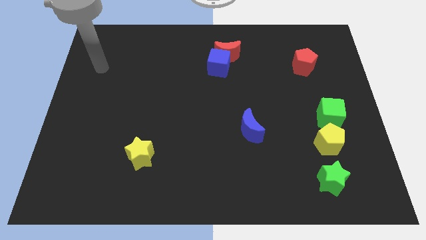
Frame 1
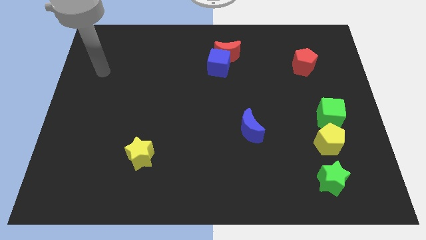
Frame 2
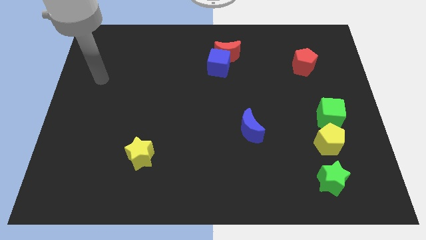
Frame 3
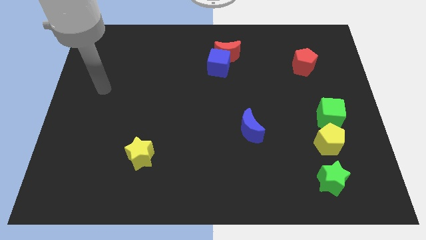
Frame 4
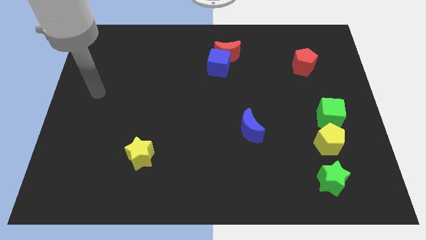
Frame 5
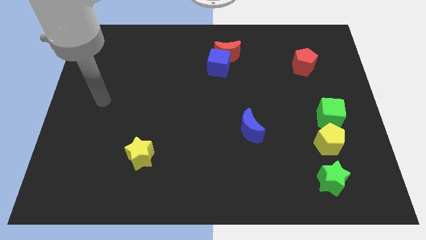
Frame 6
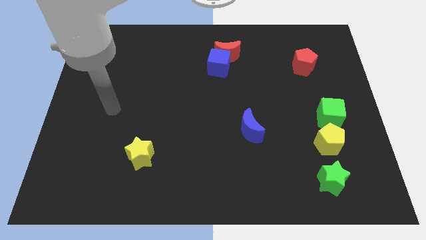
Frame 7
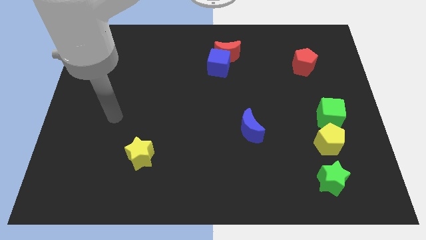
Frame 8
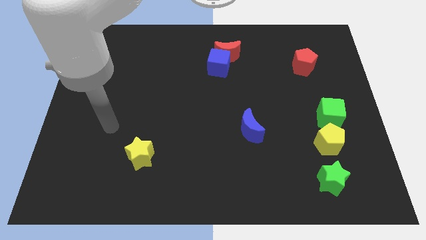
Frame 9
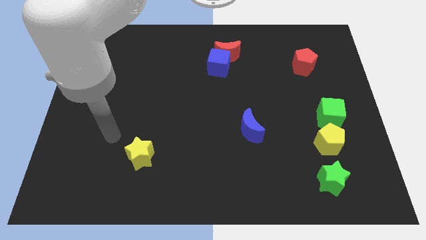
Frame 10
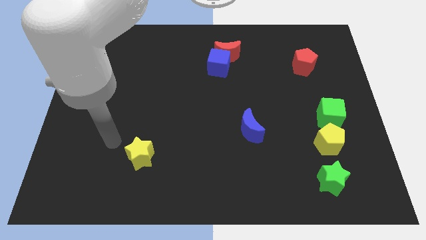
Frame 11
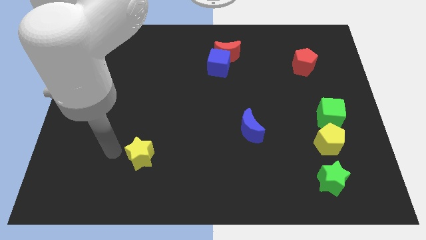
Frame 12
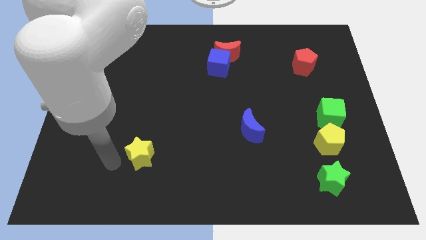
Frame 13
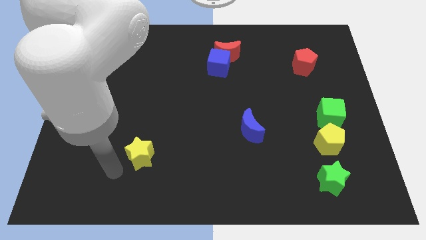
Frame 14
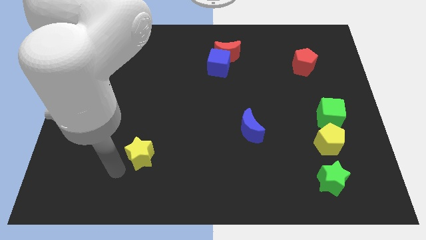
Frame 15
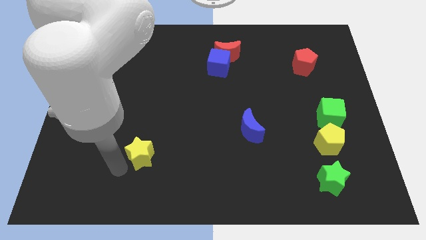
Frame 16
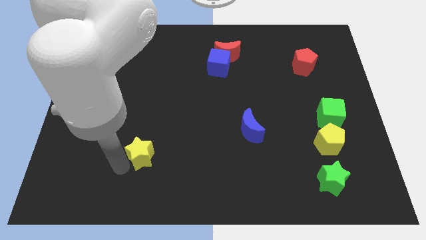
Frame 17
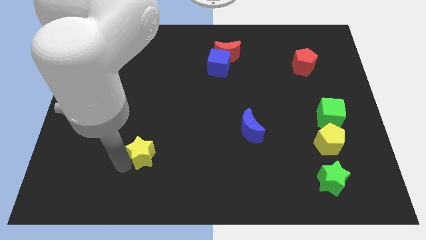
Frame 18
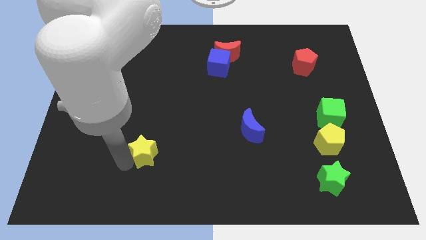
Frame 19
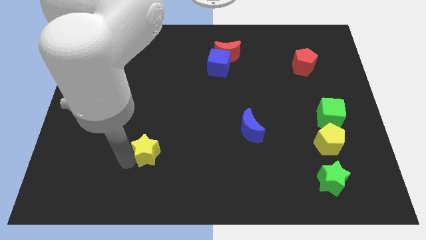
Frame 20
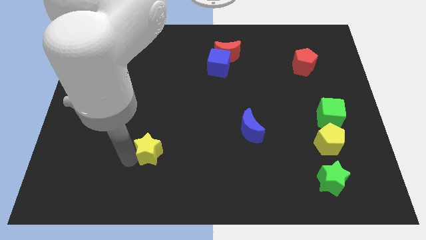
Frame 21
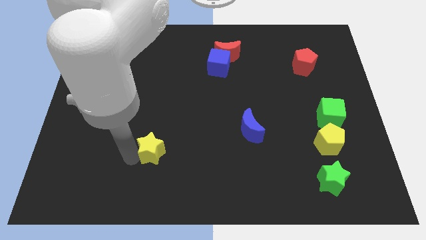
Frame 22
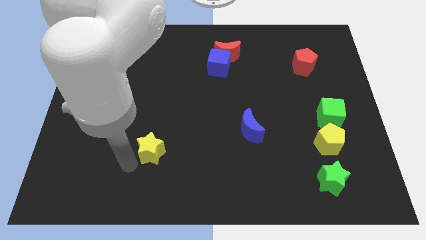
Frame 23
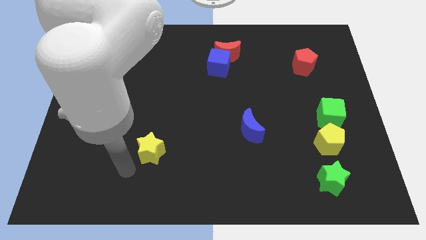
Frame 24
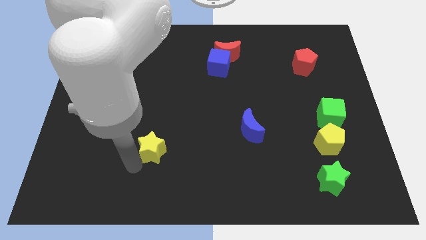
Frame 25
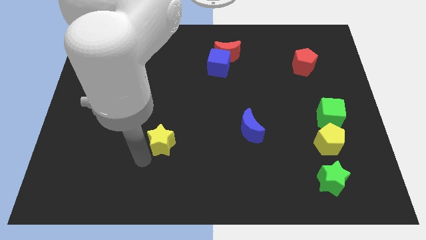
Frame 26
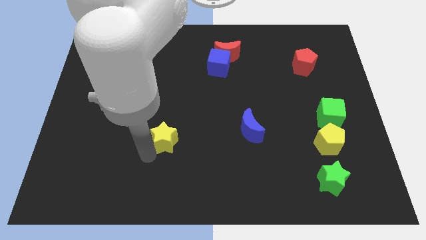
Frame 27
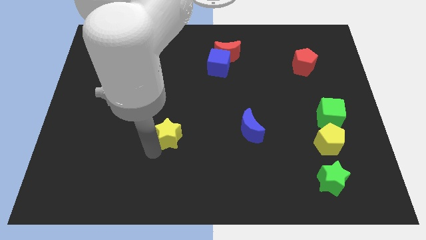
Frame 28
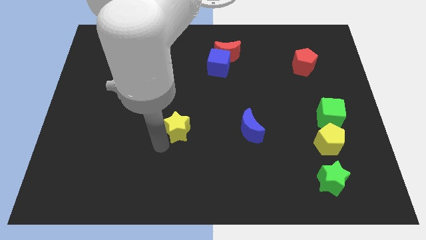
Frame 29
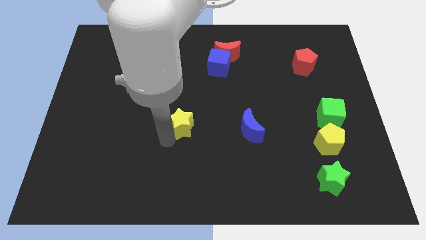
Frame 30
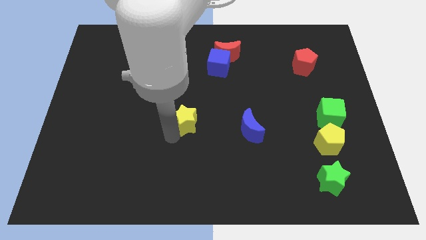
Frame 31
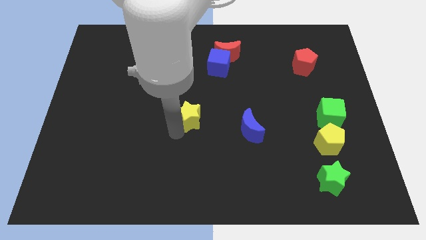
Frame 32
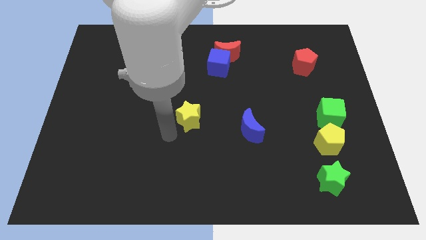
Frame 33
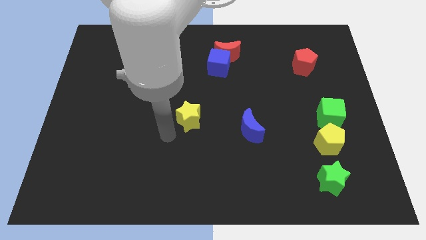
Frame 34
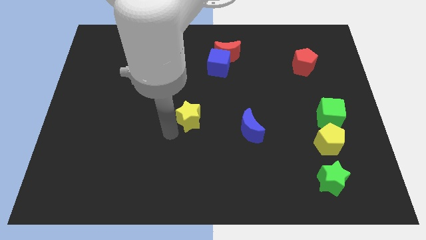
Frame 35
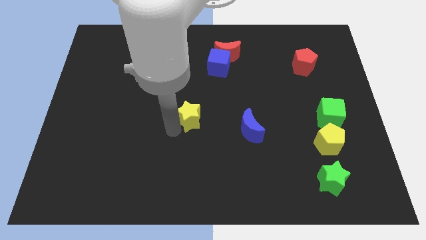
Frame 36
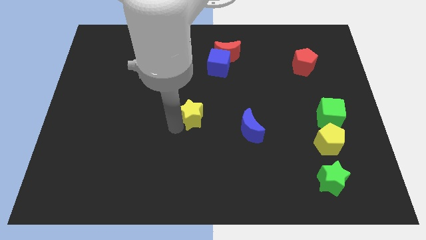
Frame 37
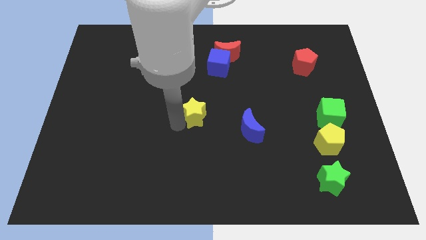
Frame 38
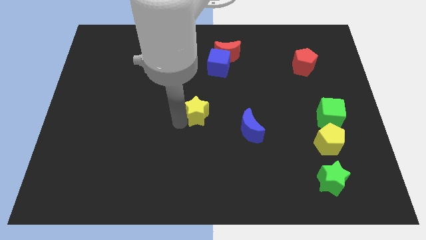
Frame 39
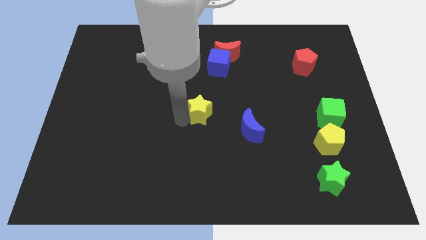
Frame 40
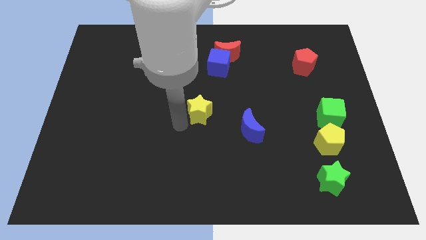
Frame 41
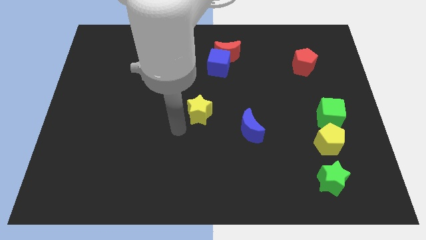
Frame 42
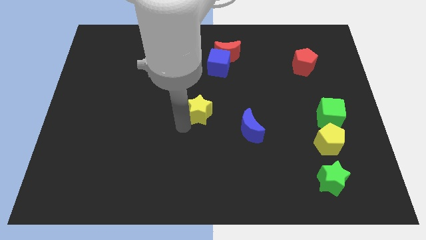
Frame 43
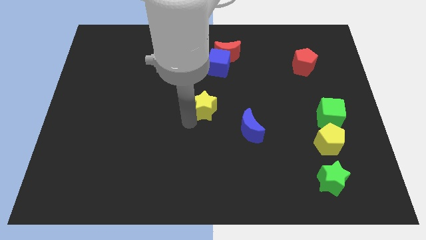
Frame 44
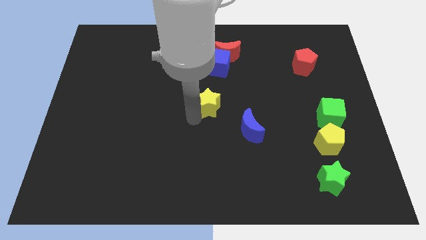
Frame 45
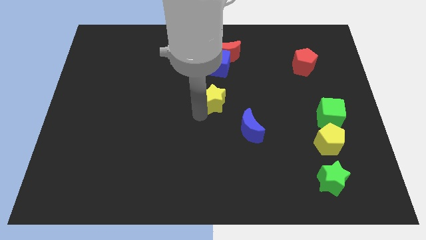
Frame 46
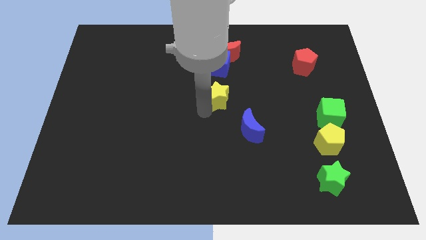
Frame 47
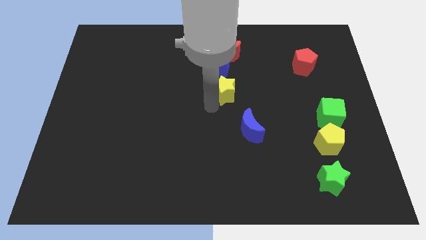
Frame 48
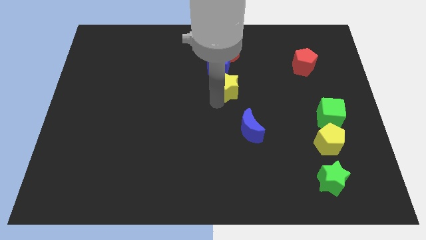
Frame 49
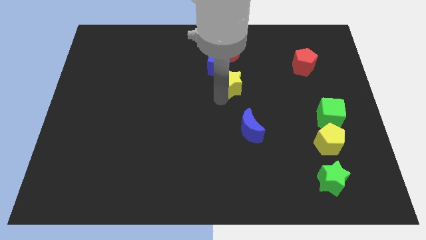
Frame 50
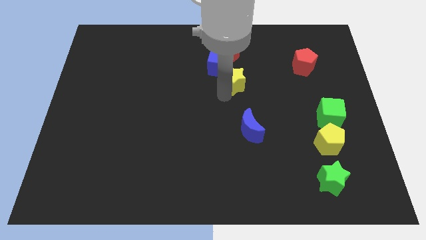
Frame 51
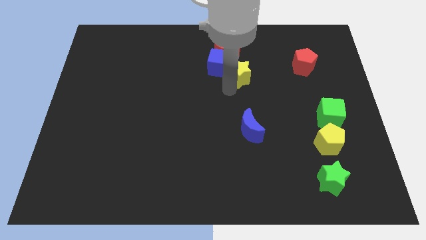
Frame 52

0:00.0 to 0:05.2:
move the yellow star to the right side of the blue cube

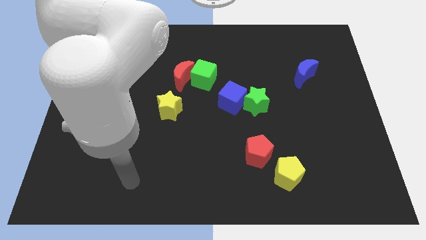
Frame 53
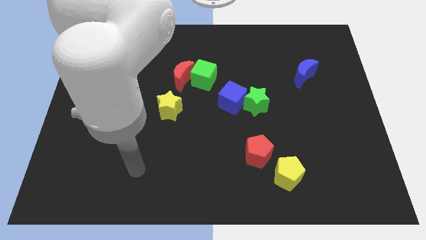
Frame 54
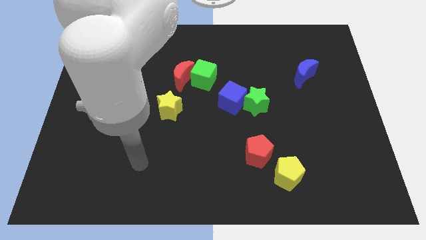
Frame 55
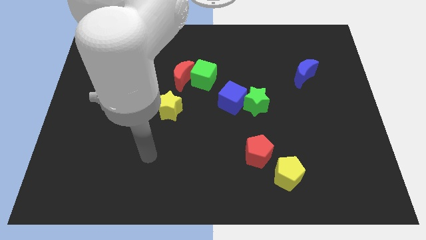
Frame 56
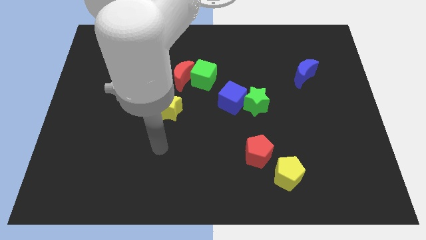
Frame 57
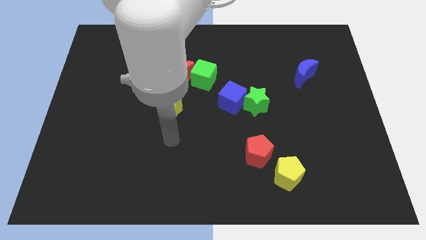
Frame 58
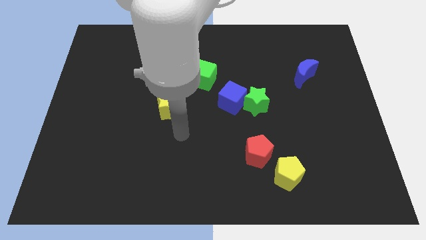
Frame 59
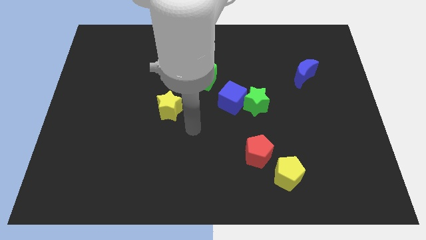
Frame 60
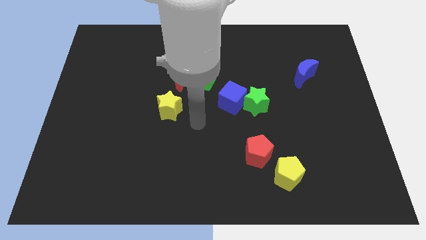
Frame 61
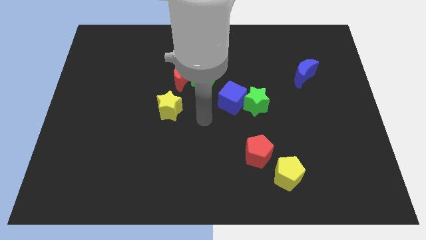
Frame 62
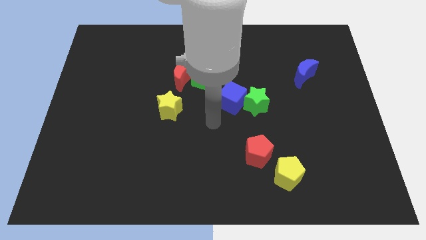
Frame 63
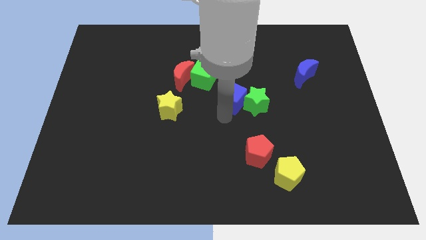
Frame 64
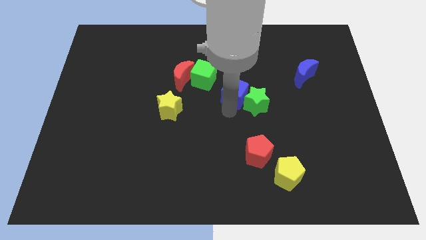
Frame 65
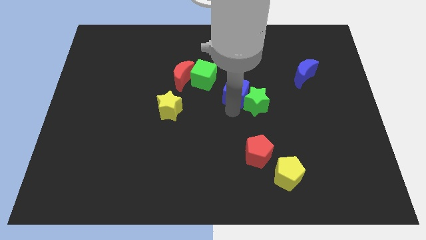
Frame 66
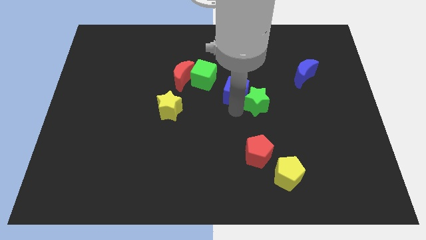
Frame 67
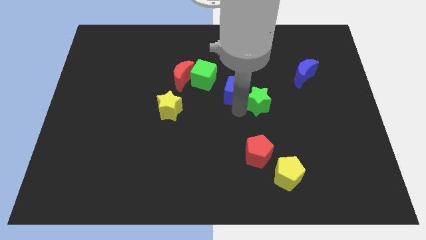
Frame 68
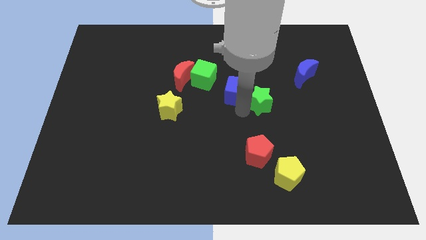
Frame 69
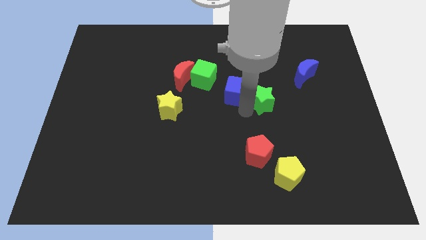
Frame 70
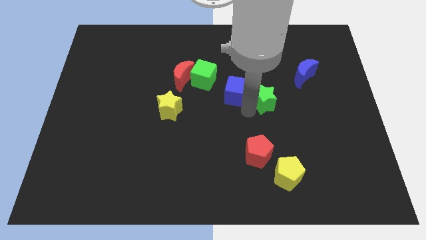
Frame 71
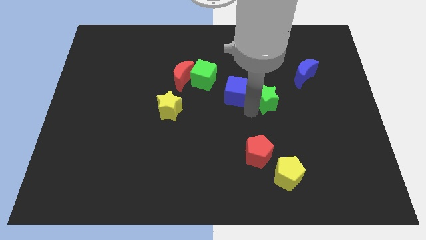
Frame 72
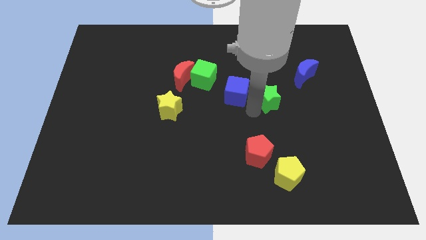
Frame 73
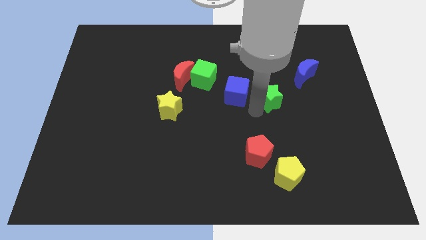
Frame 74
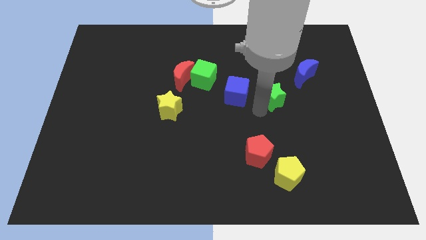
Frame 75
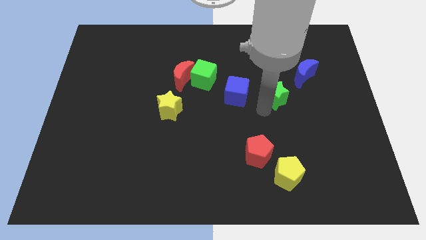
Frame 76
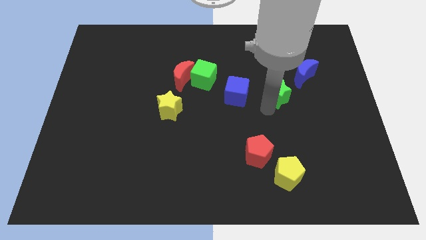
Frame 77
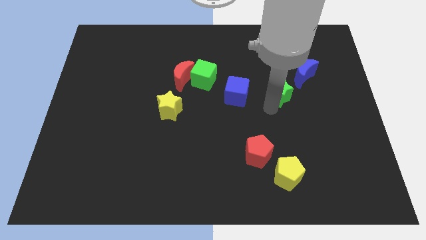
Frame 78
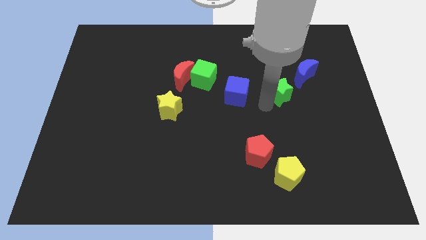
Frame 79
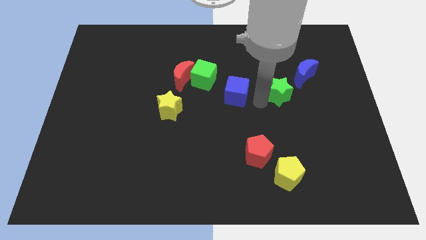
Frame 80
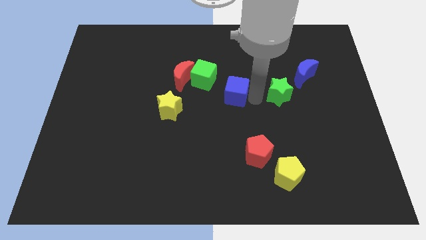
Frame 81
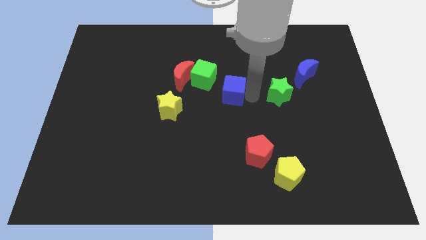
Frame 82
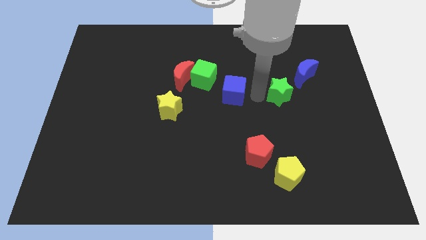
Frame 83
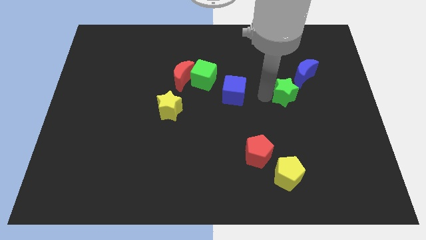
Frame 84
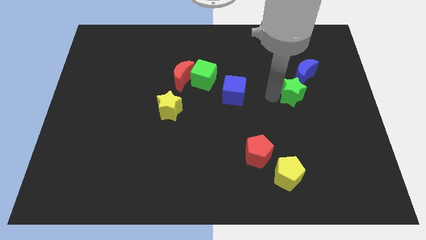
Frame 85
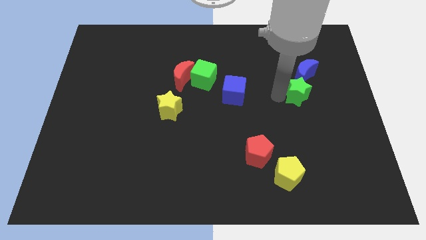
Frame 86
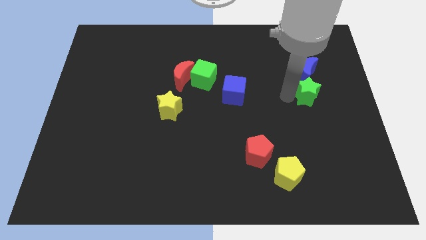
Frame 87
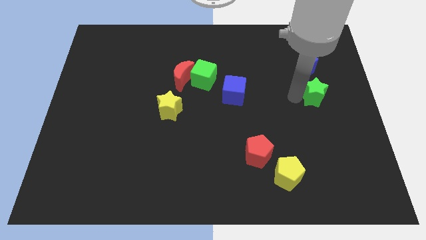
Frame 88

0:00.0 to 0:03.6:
put the green star to the bottom right of the blue moon
